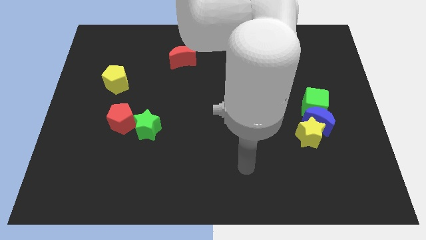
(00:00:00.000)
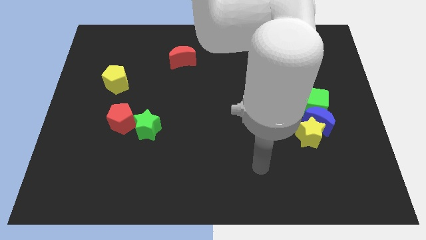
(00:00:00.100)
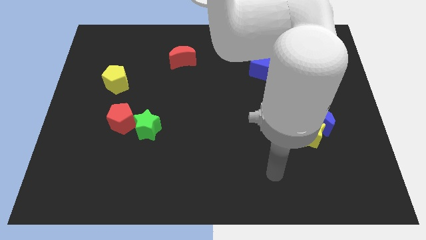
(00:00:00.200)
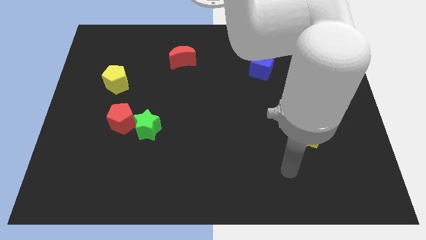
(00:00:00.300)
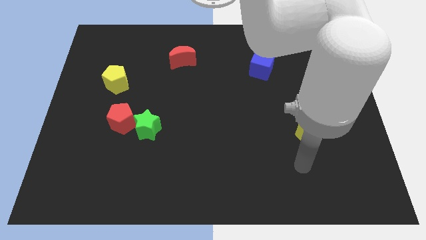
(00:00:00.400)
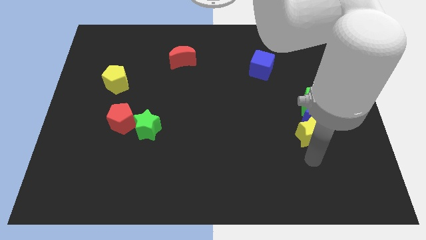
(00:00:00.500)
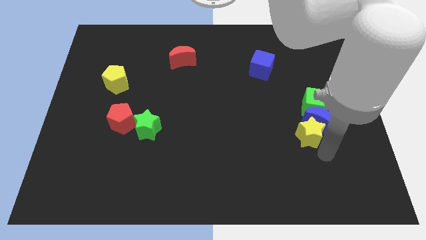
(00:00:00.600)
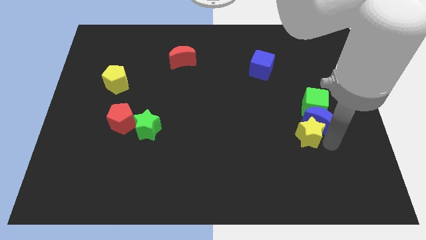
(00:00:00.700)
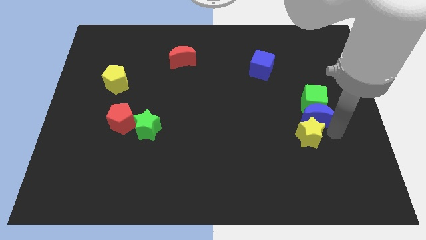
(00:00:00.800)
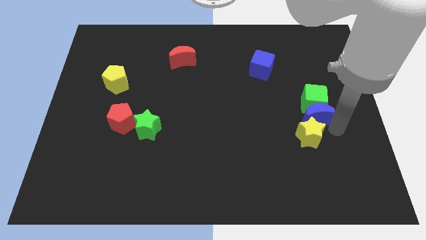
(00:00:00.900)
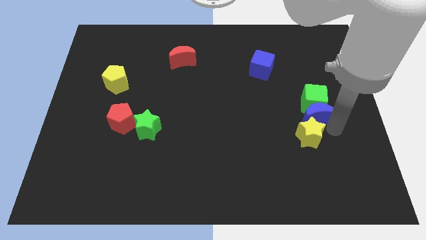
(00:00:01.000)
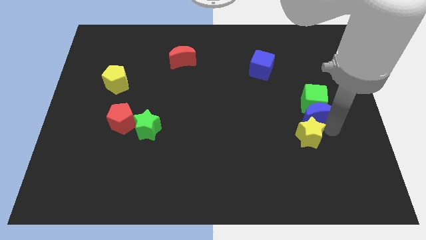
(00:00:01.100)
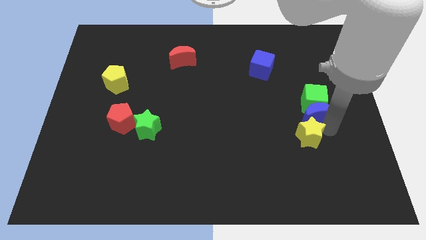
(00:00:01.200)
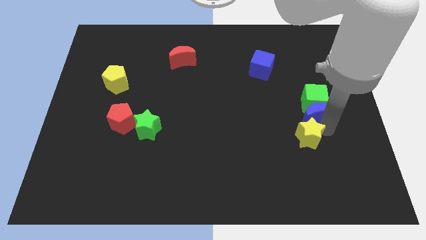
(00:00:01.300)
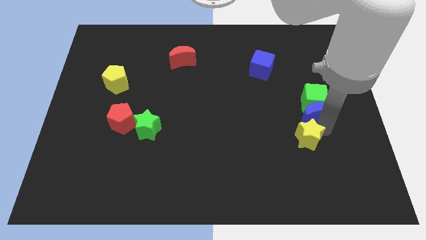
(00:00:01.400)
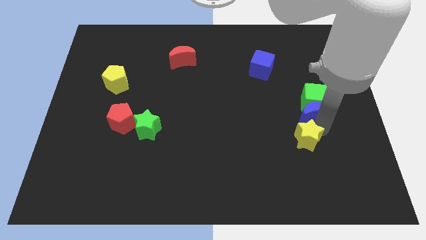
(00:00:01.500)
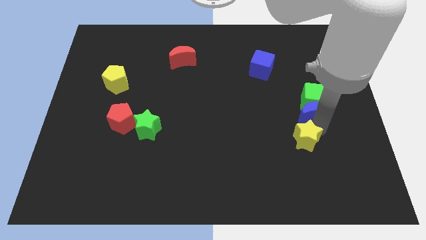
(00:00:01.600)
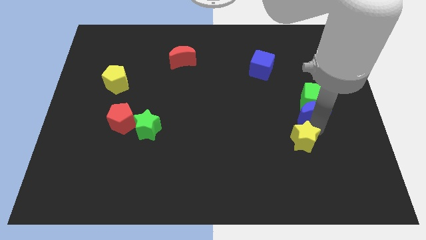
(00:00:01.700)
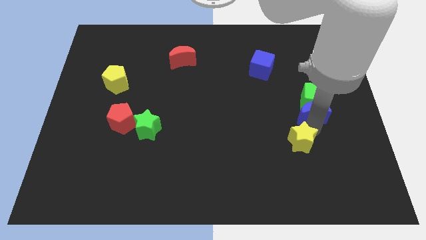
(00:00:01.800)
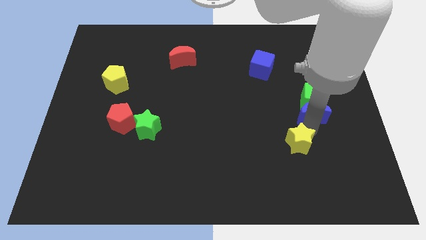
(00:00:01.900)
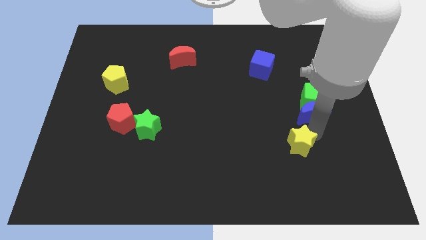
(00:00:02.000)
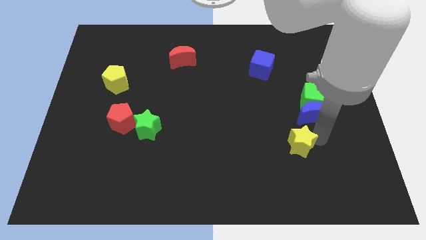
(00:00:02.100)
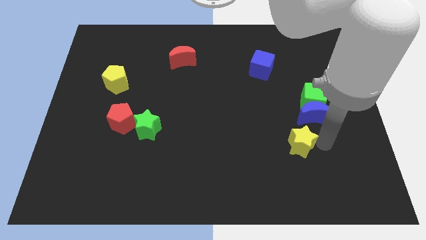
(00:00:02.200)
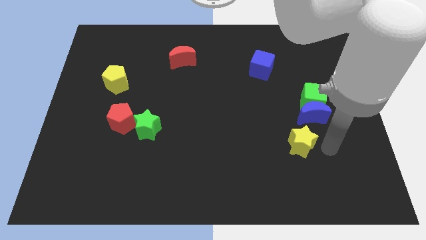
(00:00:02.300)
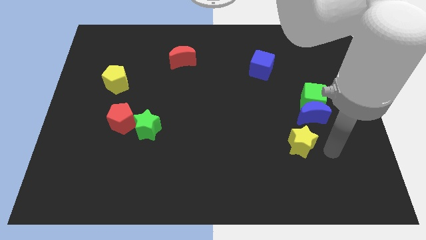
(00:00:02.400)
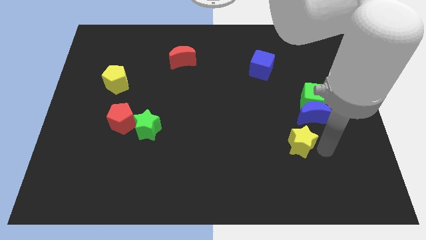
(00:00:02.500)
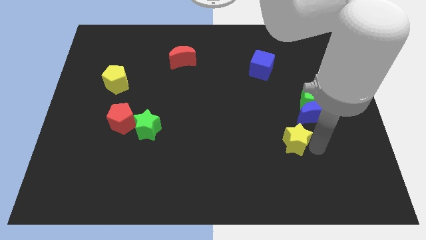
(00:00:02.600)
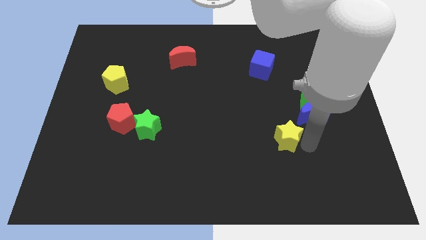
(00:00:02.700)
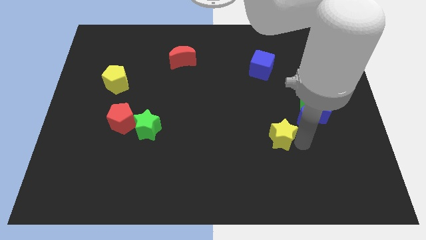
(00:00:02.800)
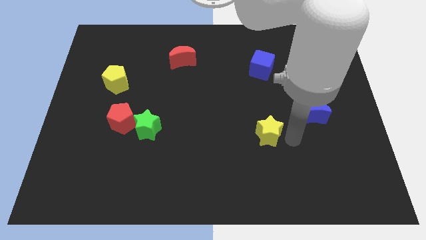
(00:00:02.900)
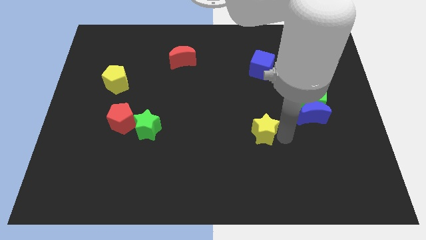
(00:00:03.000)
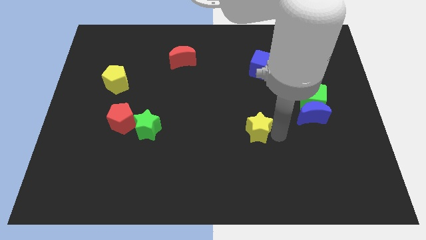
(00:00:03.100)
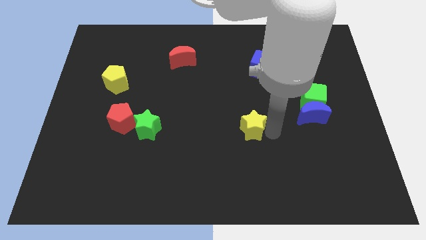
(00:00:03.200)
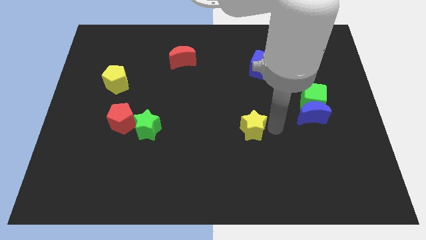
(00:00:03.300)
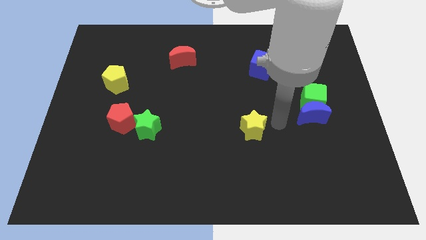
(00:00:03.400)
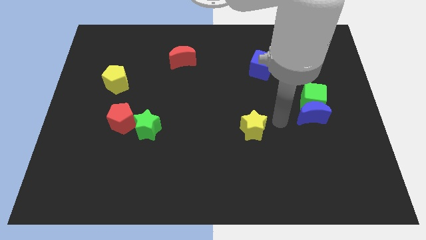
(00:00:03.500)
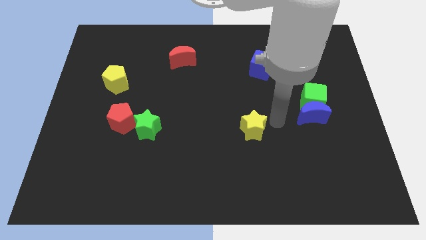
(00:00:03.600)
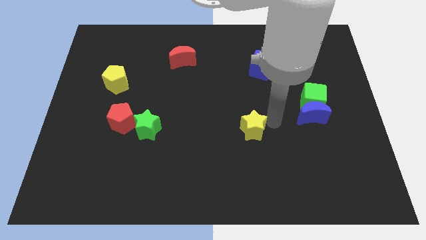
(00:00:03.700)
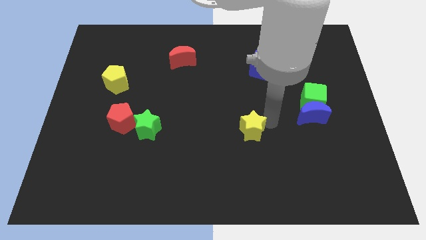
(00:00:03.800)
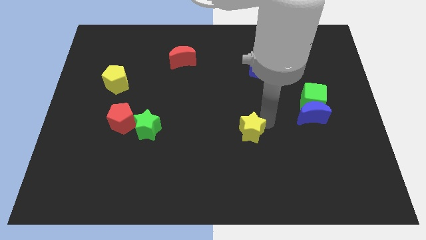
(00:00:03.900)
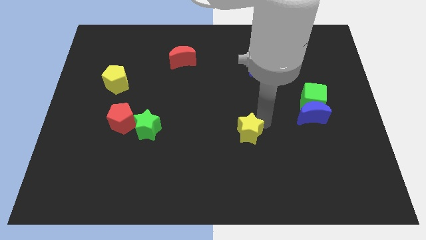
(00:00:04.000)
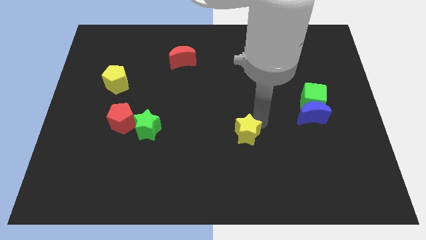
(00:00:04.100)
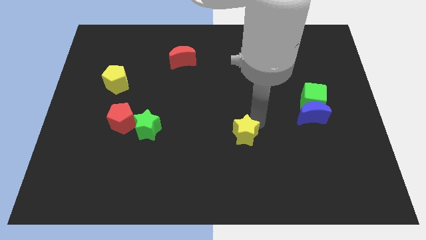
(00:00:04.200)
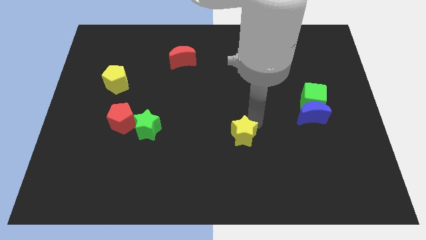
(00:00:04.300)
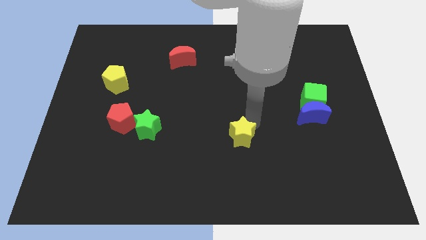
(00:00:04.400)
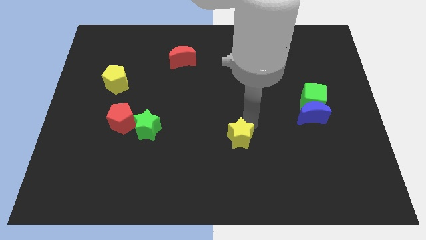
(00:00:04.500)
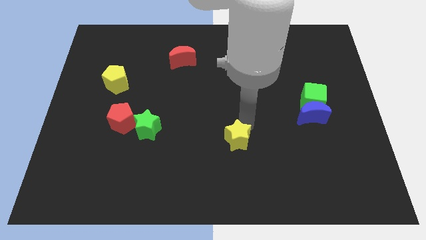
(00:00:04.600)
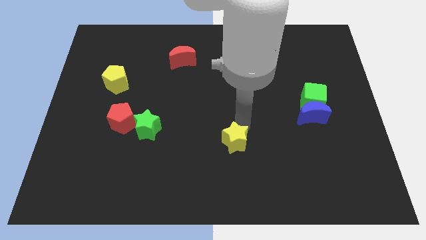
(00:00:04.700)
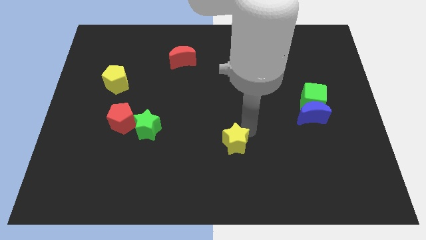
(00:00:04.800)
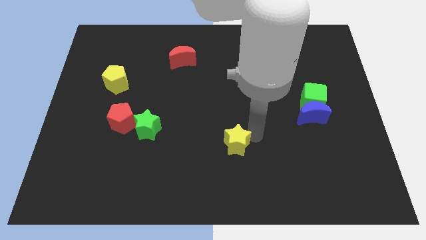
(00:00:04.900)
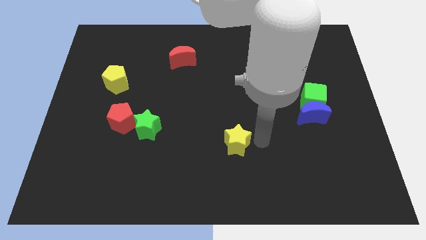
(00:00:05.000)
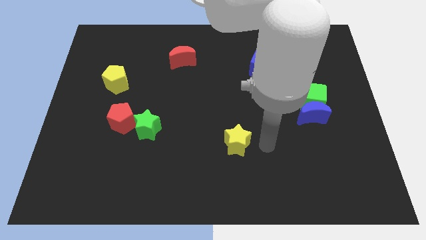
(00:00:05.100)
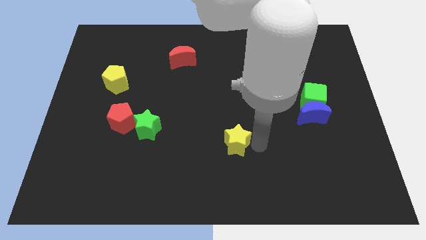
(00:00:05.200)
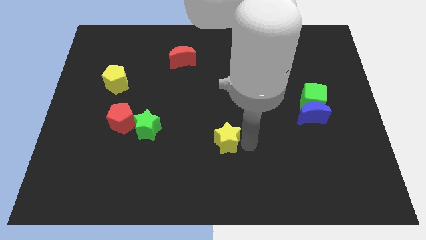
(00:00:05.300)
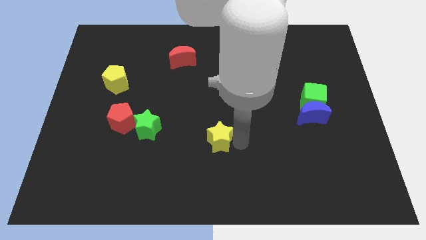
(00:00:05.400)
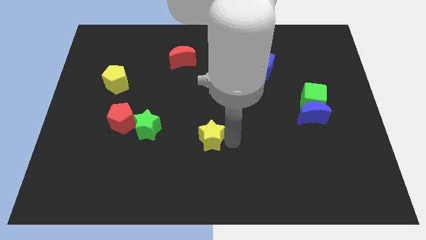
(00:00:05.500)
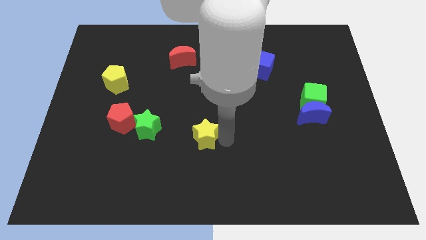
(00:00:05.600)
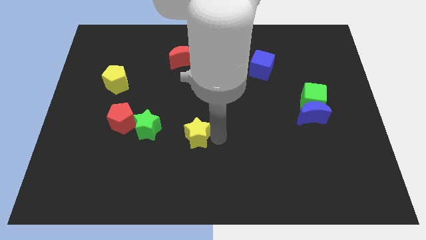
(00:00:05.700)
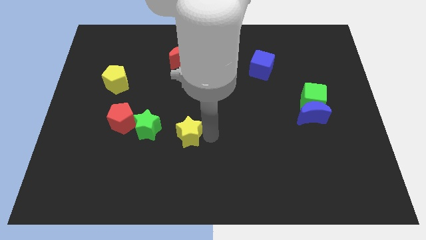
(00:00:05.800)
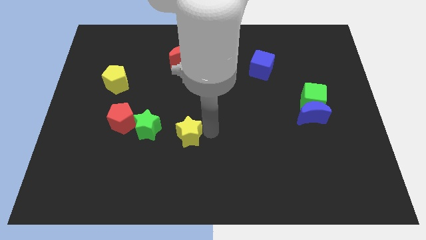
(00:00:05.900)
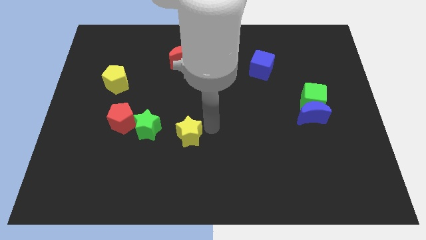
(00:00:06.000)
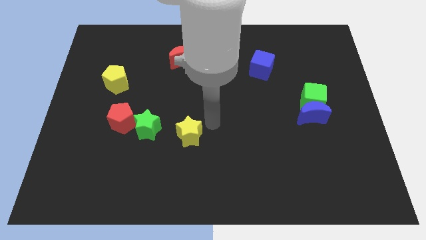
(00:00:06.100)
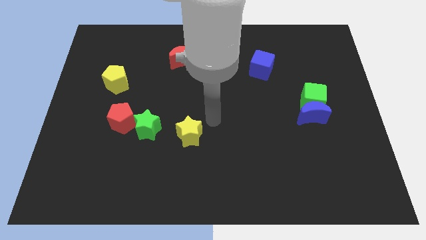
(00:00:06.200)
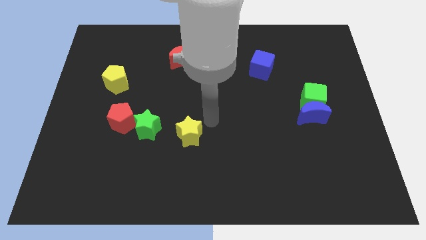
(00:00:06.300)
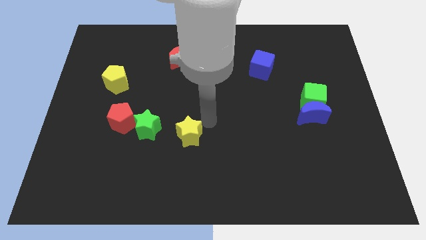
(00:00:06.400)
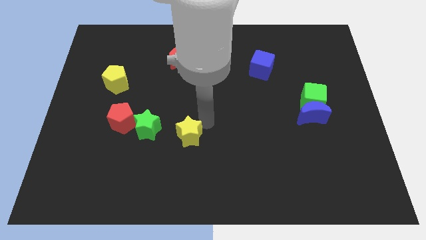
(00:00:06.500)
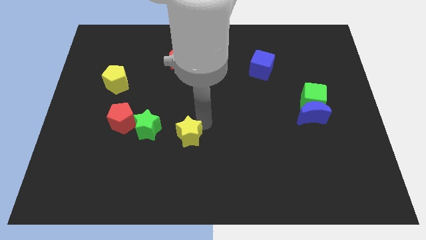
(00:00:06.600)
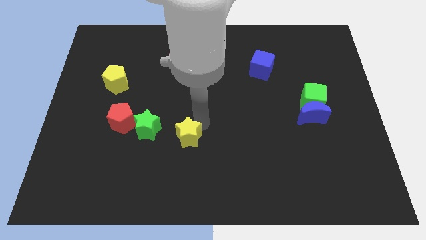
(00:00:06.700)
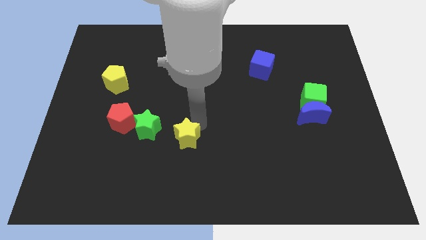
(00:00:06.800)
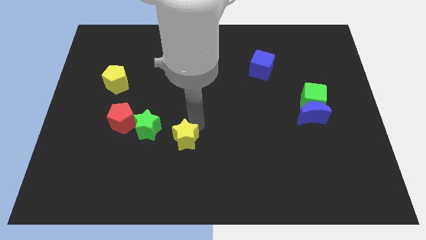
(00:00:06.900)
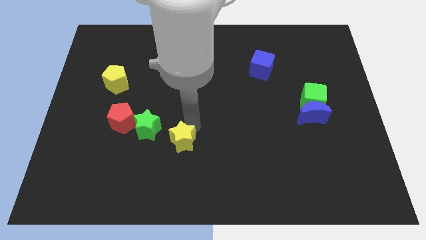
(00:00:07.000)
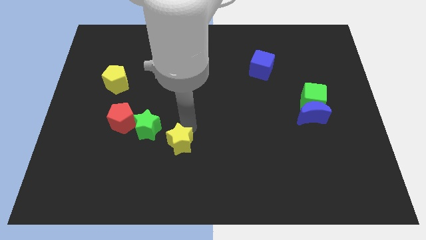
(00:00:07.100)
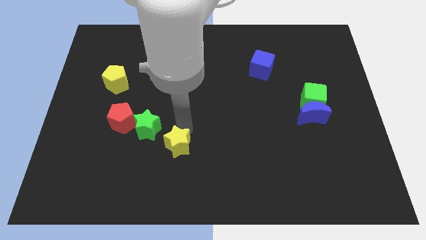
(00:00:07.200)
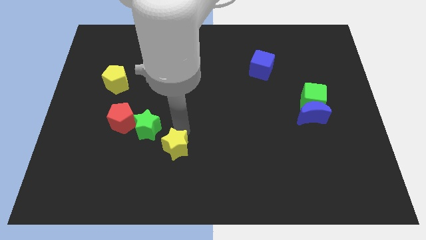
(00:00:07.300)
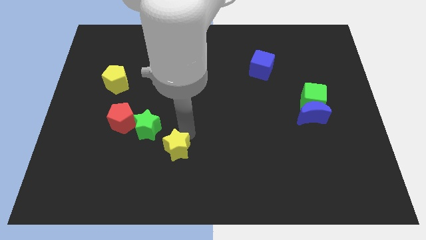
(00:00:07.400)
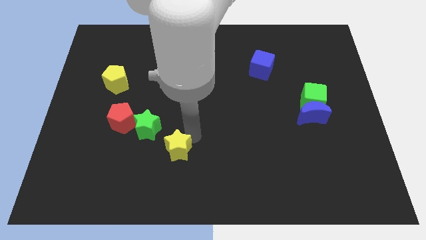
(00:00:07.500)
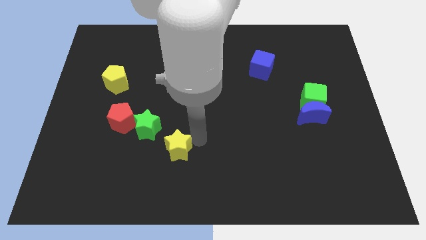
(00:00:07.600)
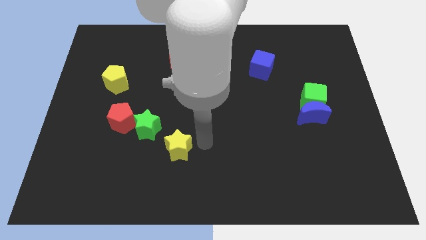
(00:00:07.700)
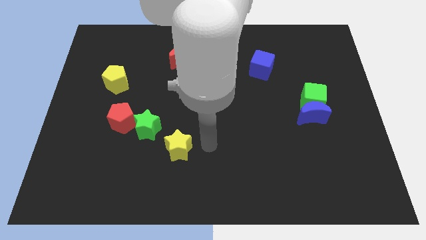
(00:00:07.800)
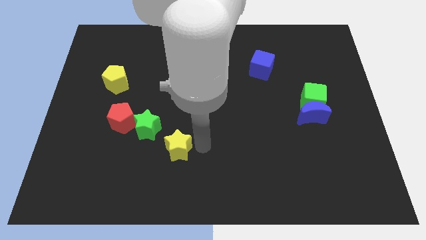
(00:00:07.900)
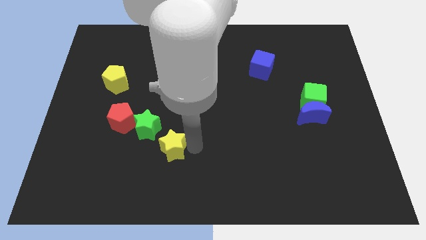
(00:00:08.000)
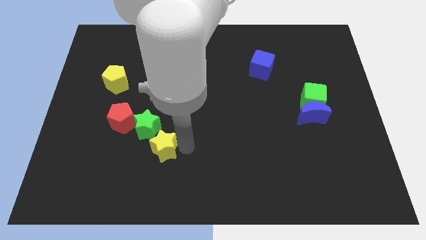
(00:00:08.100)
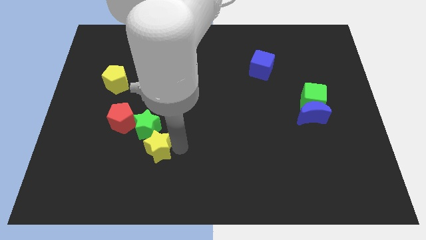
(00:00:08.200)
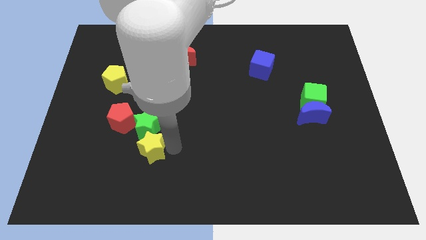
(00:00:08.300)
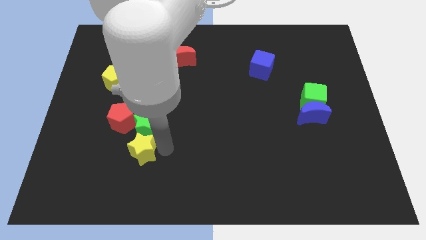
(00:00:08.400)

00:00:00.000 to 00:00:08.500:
move the yellow star to the bottom left of the green star
